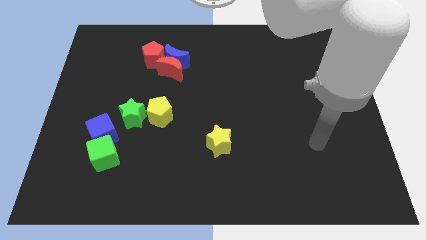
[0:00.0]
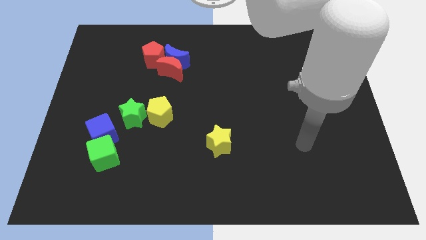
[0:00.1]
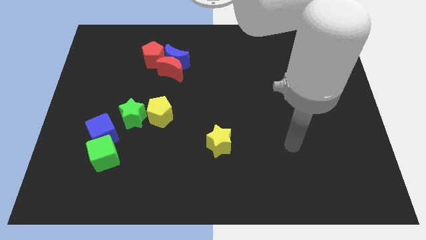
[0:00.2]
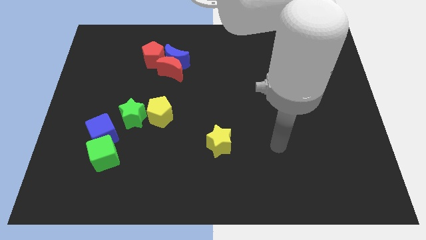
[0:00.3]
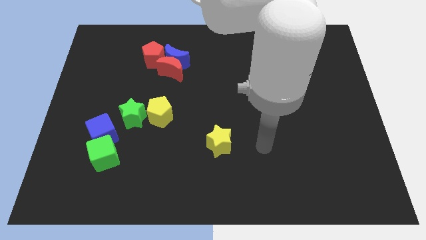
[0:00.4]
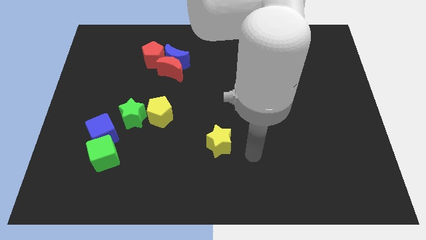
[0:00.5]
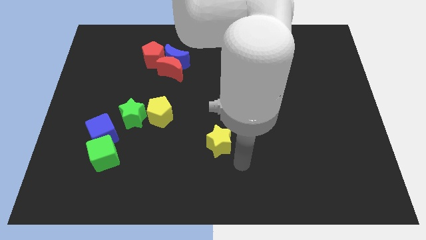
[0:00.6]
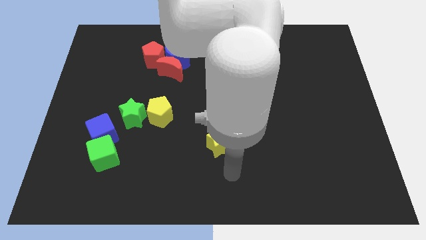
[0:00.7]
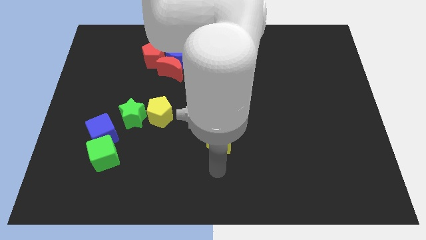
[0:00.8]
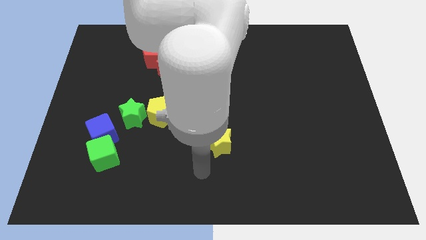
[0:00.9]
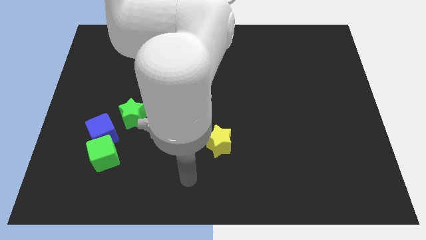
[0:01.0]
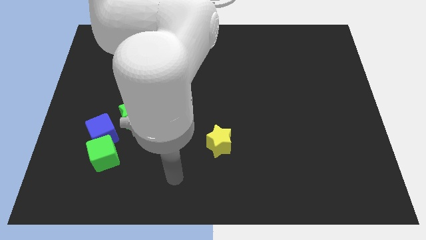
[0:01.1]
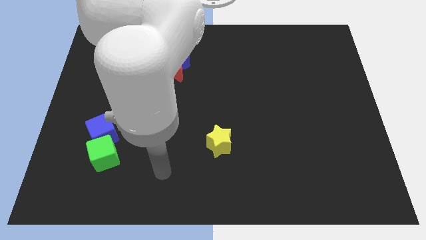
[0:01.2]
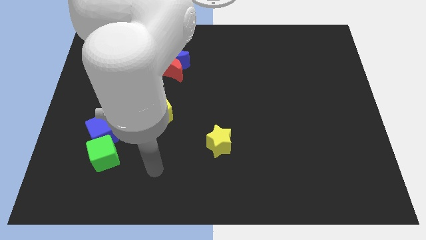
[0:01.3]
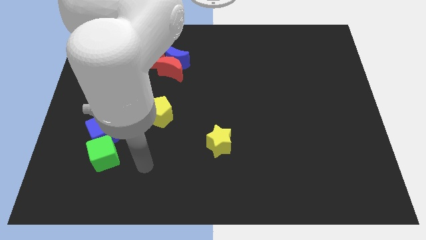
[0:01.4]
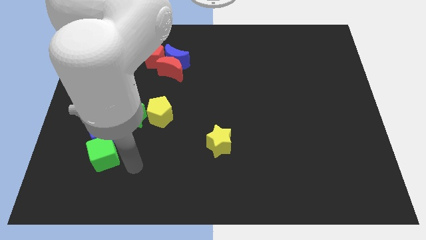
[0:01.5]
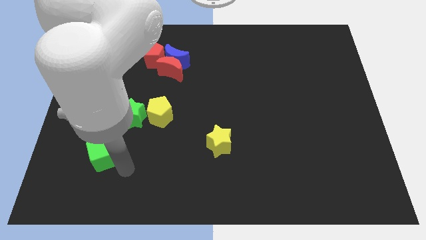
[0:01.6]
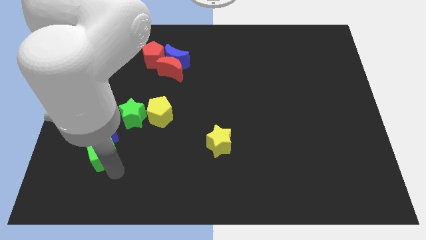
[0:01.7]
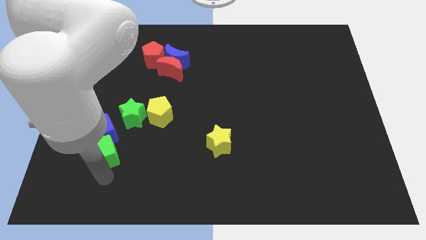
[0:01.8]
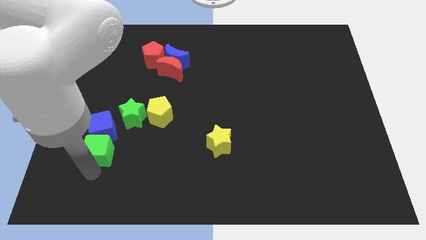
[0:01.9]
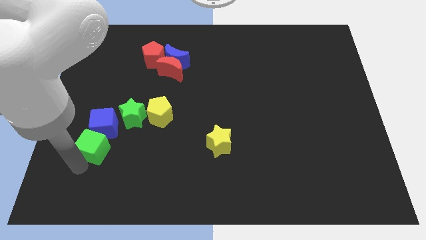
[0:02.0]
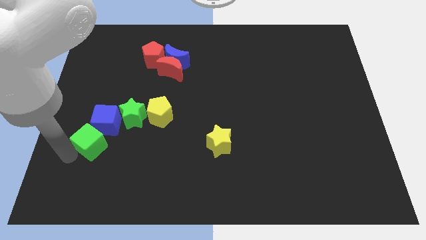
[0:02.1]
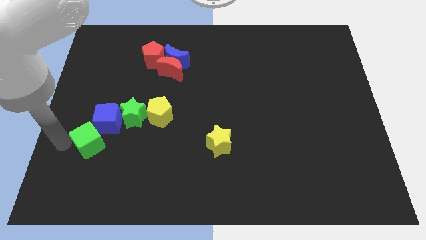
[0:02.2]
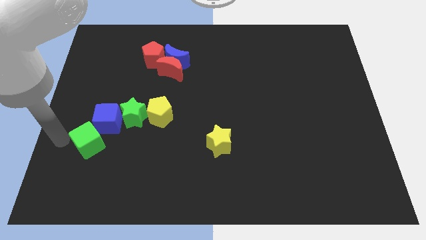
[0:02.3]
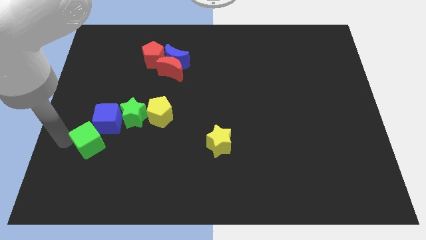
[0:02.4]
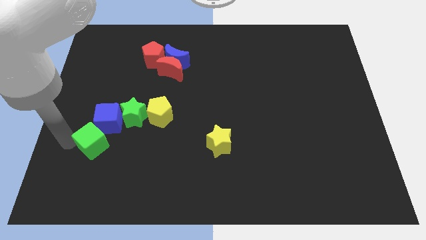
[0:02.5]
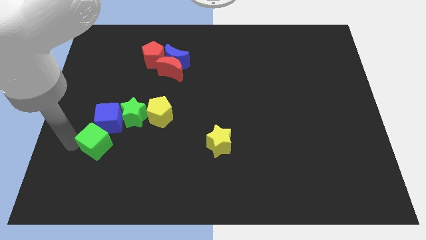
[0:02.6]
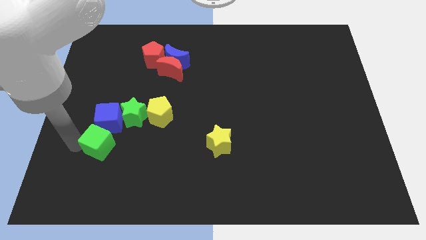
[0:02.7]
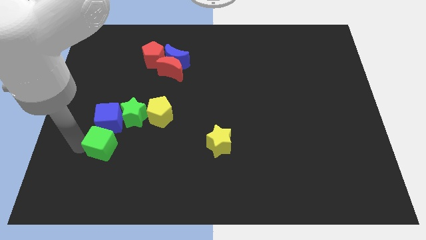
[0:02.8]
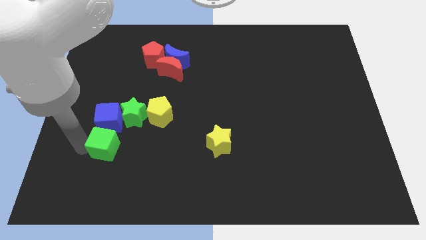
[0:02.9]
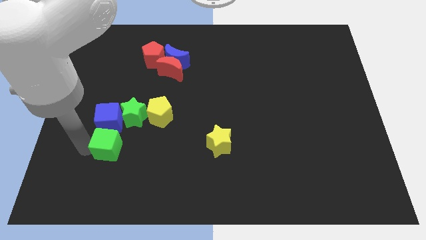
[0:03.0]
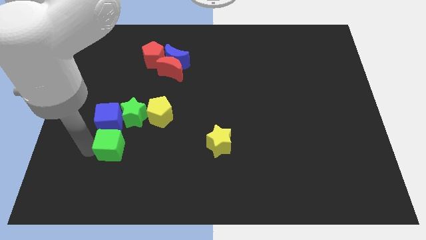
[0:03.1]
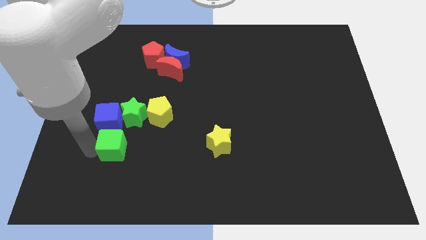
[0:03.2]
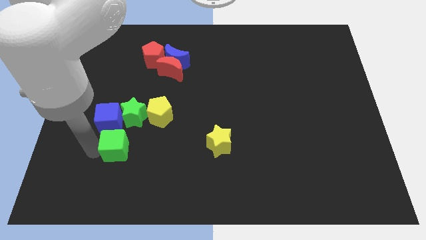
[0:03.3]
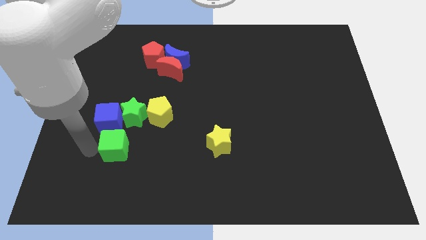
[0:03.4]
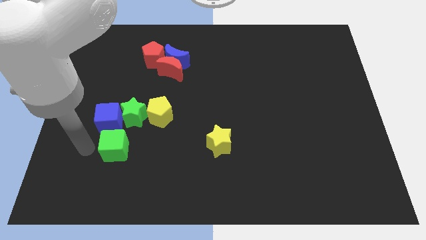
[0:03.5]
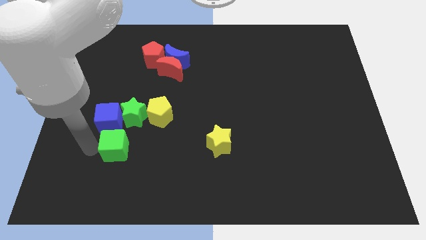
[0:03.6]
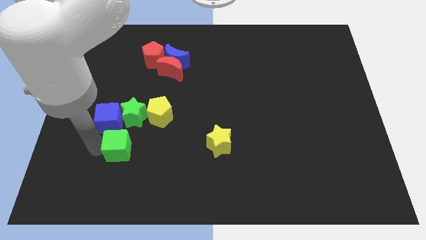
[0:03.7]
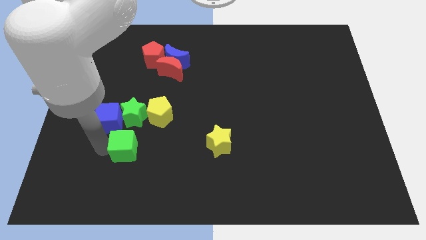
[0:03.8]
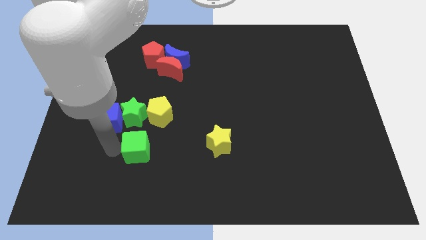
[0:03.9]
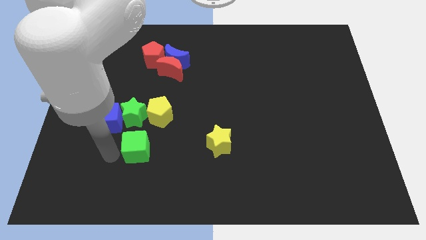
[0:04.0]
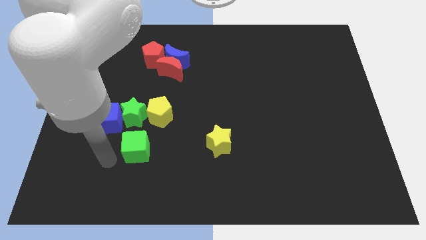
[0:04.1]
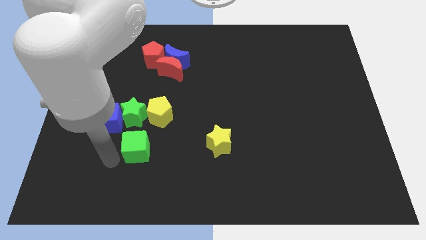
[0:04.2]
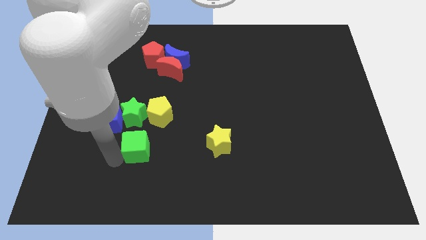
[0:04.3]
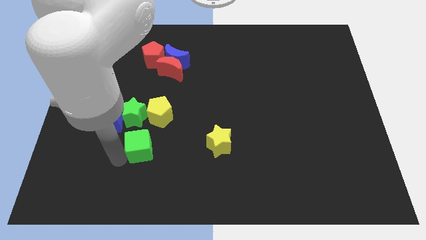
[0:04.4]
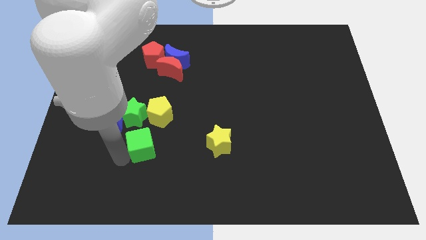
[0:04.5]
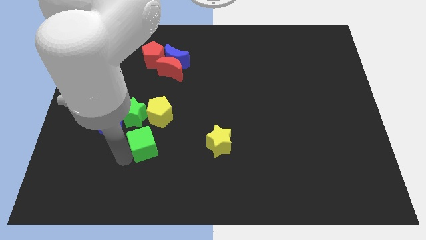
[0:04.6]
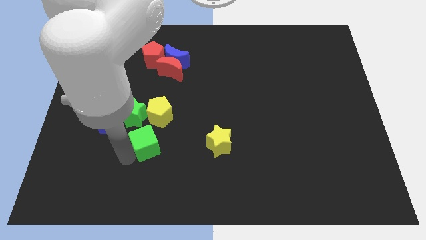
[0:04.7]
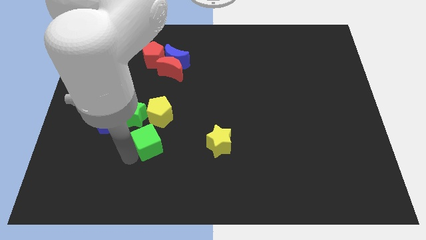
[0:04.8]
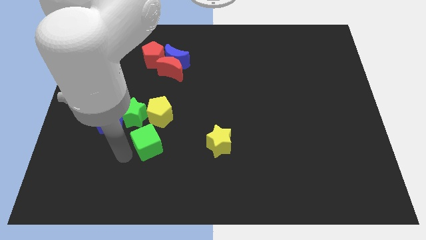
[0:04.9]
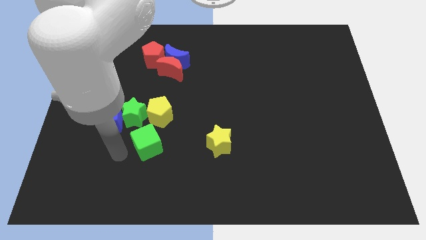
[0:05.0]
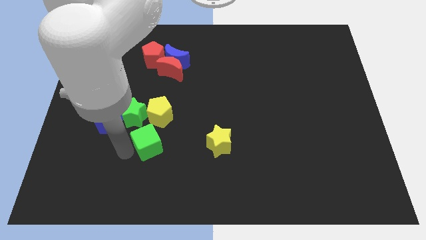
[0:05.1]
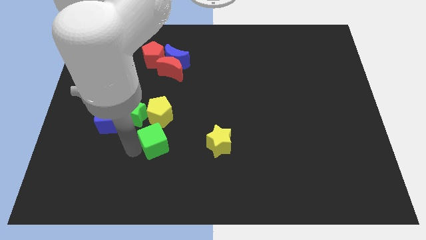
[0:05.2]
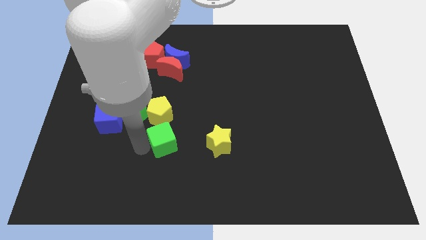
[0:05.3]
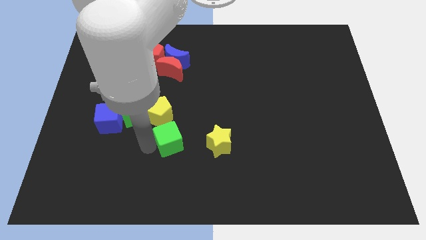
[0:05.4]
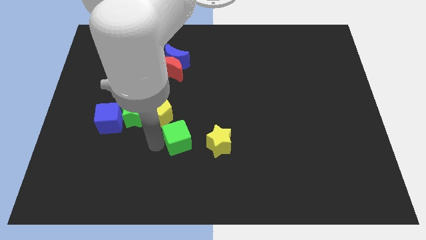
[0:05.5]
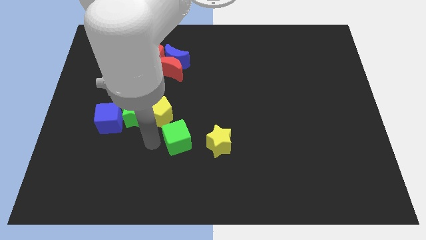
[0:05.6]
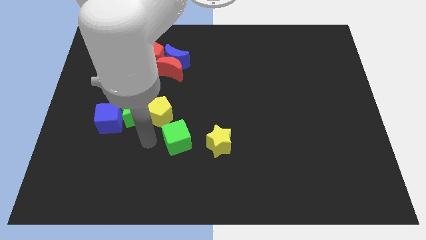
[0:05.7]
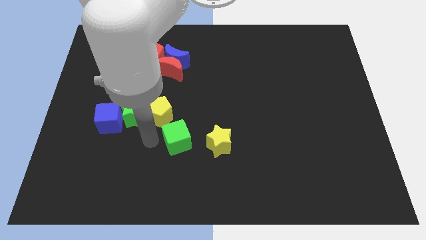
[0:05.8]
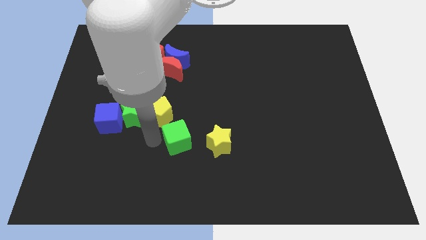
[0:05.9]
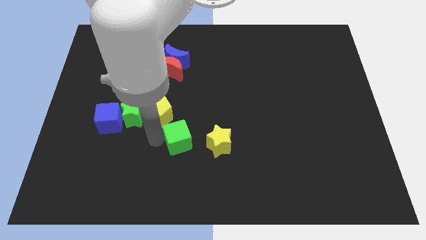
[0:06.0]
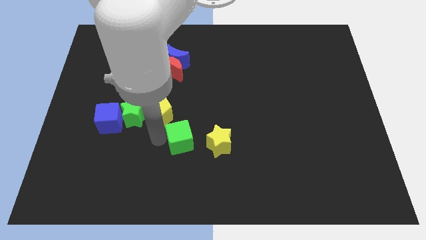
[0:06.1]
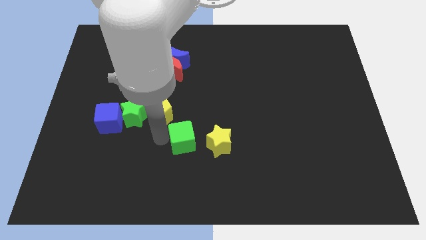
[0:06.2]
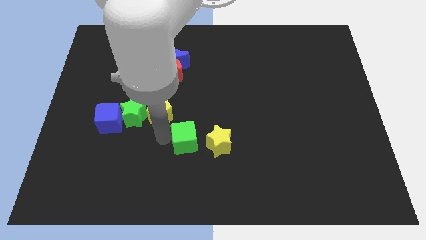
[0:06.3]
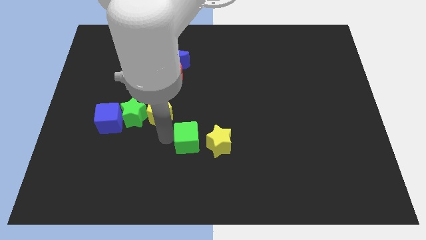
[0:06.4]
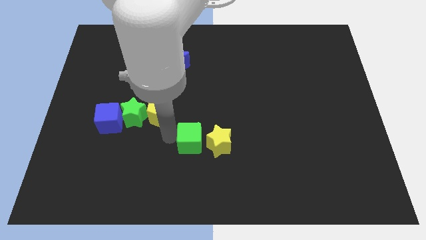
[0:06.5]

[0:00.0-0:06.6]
put the green cube close to the yellow star

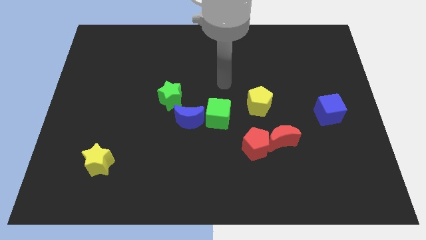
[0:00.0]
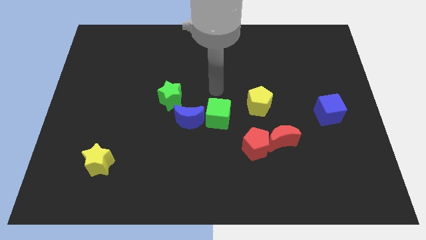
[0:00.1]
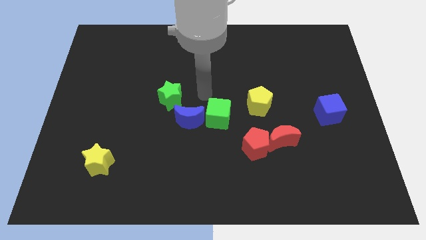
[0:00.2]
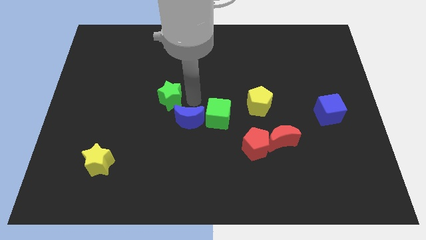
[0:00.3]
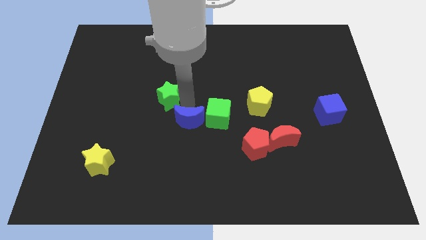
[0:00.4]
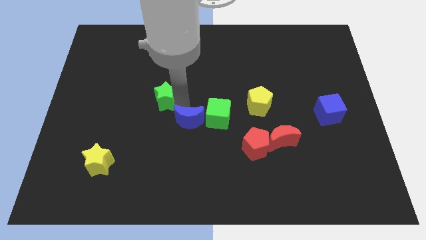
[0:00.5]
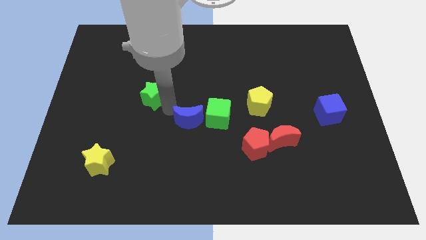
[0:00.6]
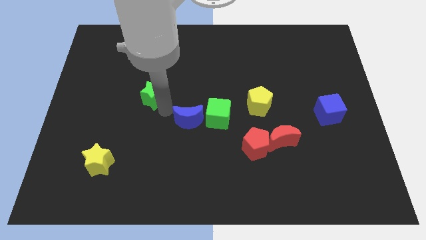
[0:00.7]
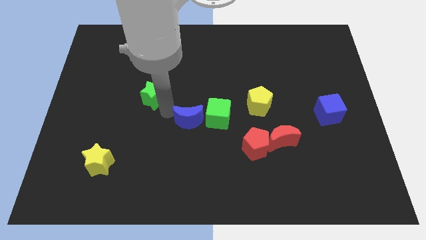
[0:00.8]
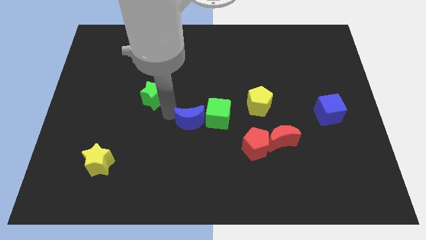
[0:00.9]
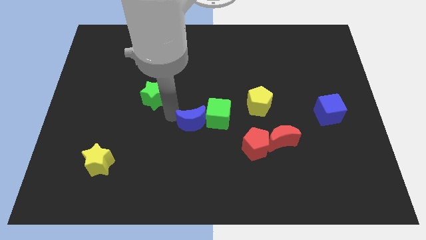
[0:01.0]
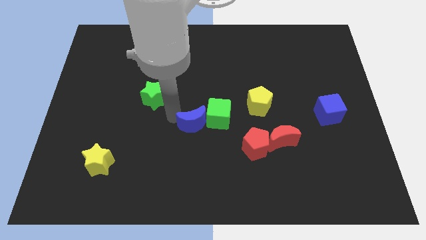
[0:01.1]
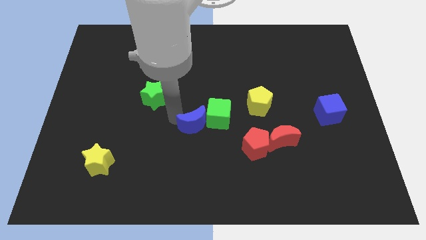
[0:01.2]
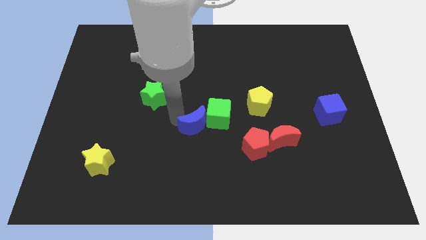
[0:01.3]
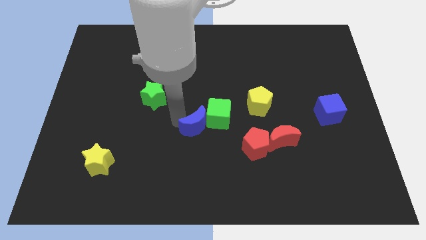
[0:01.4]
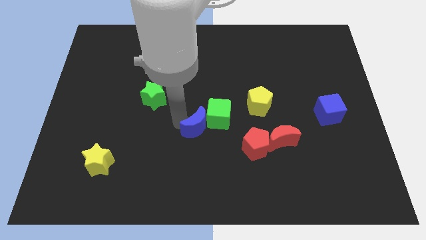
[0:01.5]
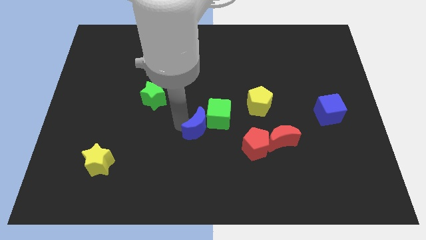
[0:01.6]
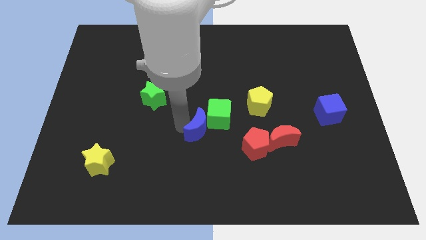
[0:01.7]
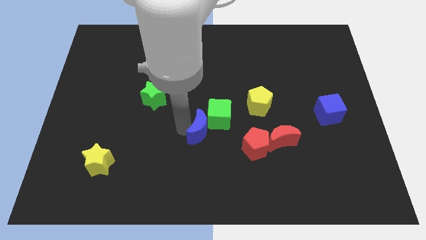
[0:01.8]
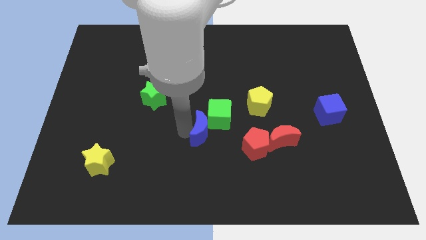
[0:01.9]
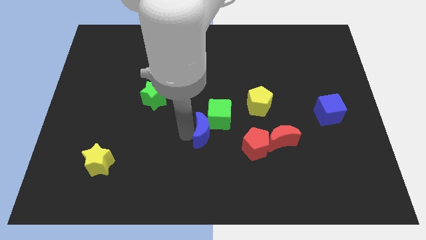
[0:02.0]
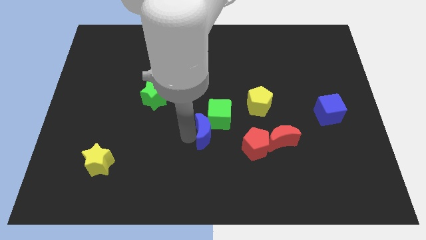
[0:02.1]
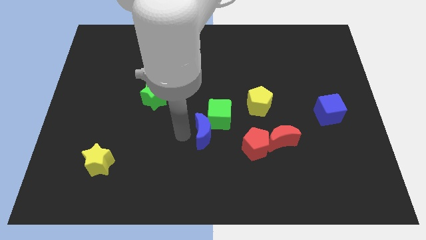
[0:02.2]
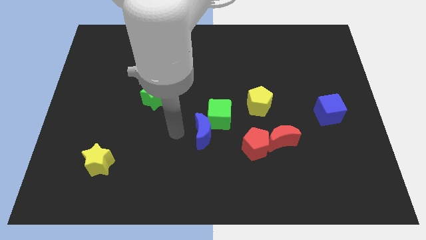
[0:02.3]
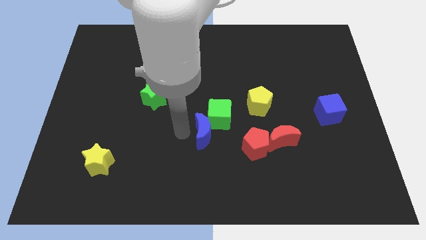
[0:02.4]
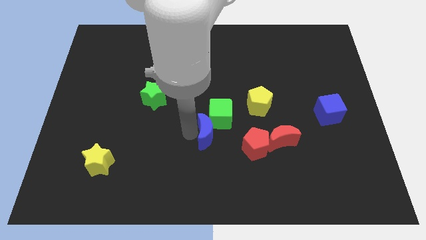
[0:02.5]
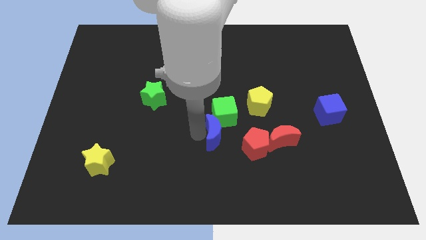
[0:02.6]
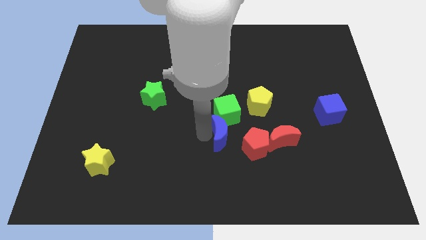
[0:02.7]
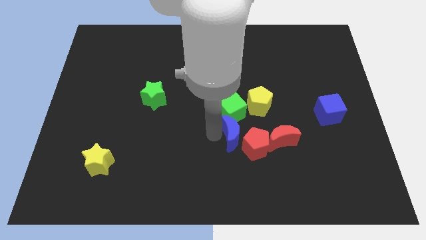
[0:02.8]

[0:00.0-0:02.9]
put the blue moon close to the red pentagon
